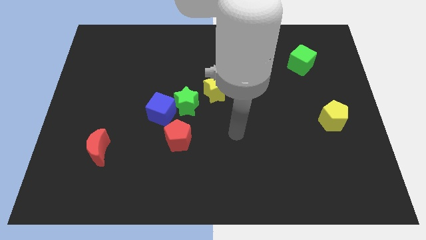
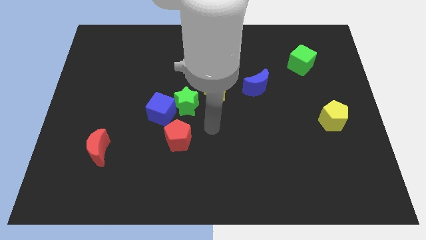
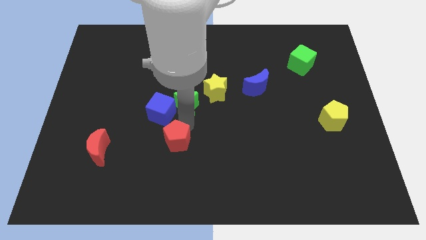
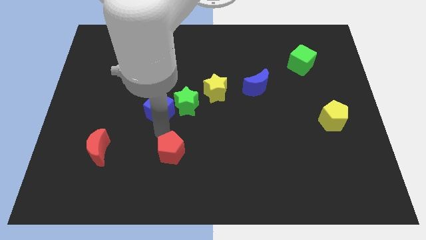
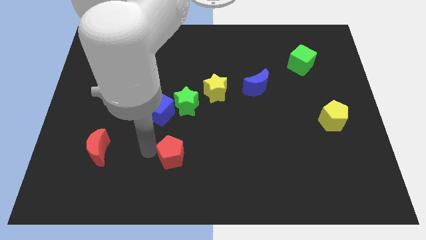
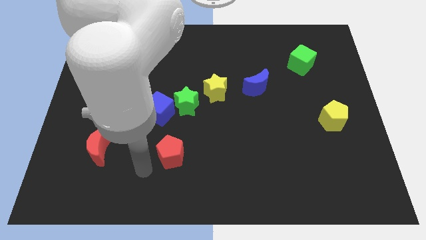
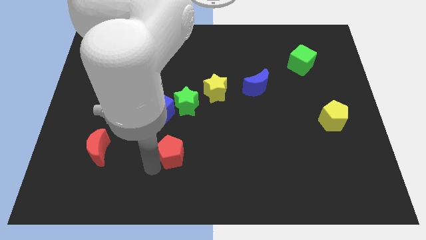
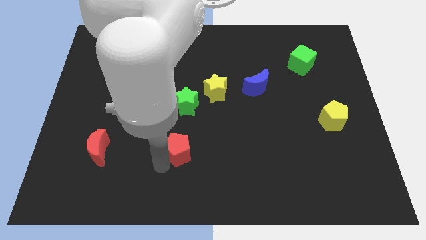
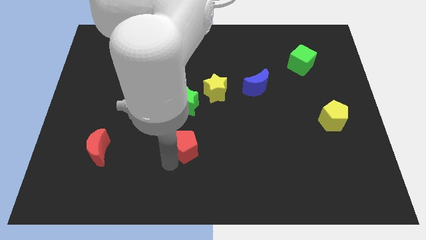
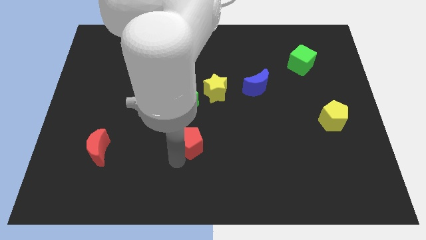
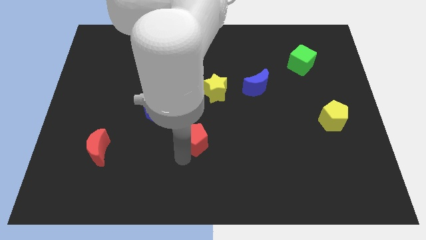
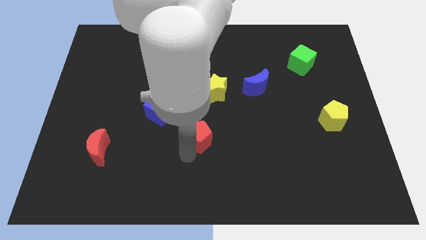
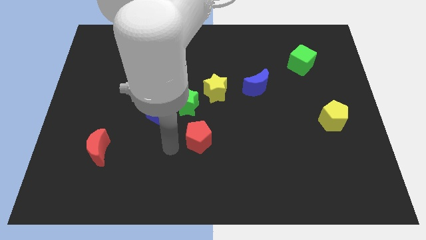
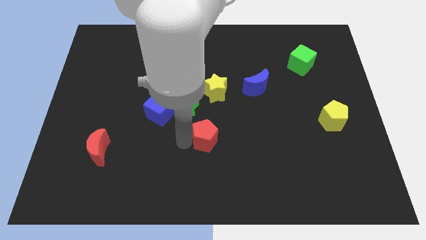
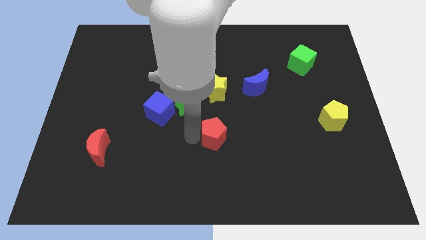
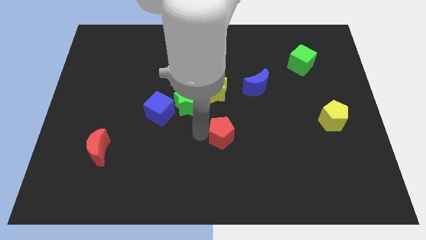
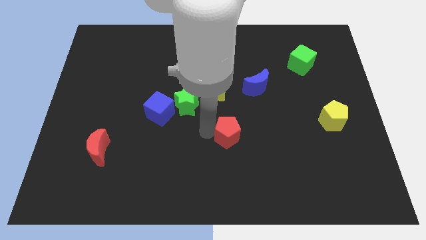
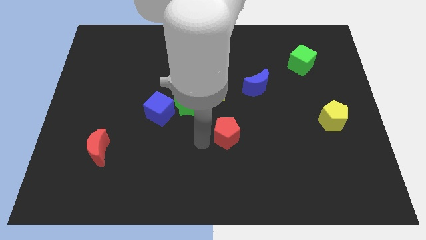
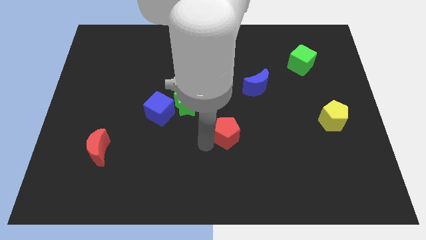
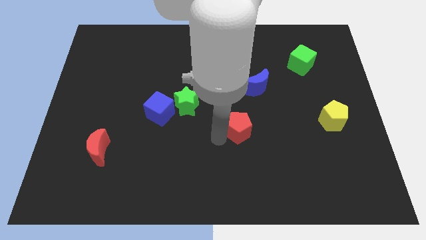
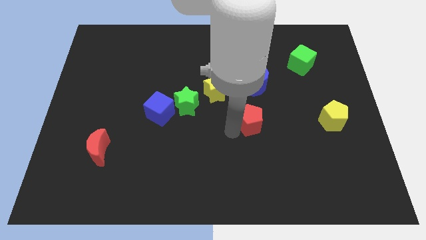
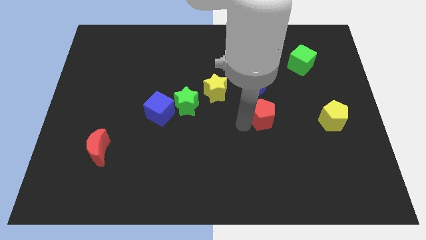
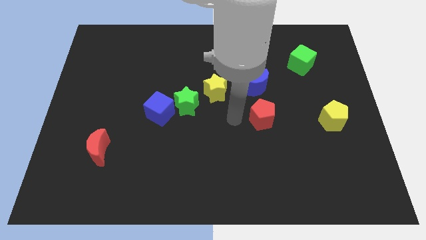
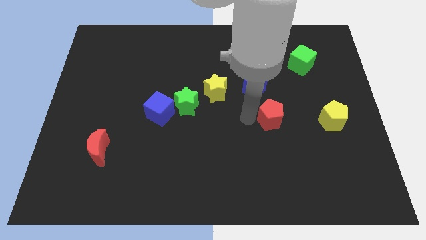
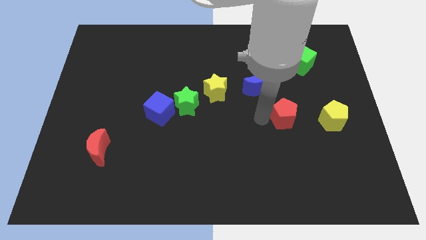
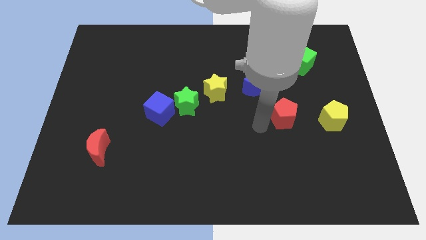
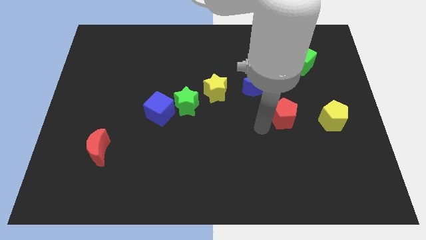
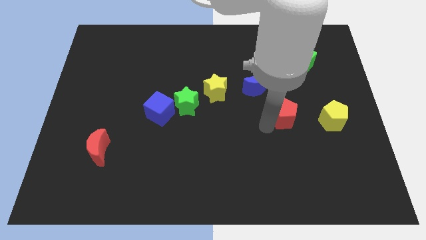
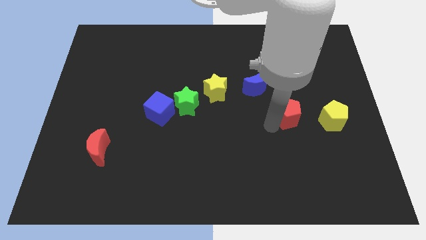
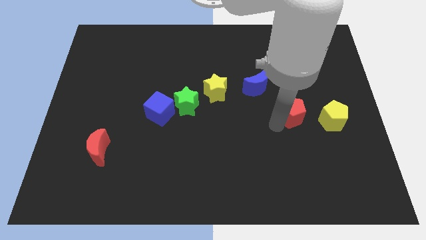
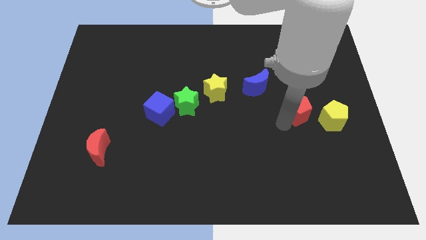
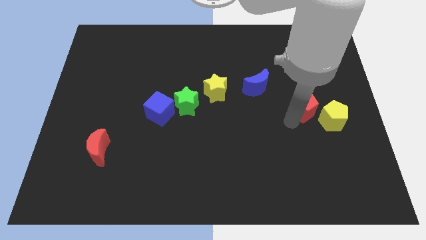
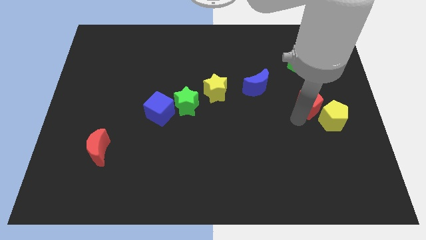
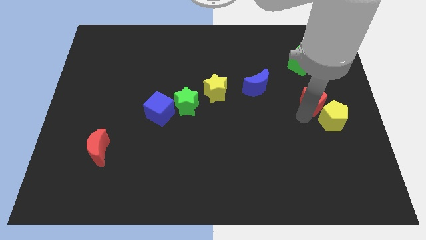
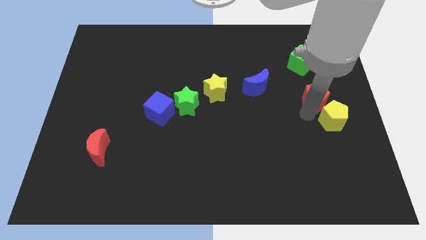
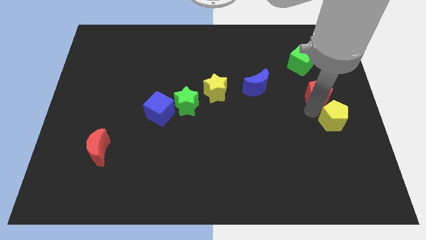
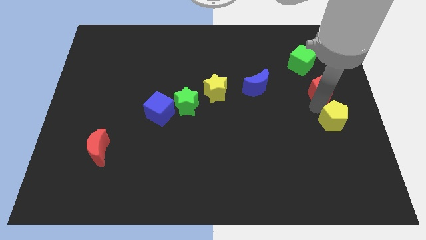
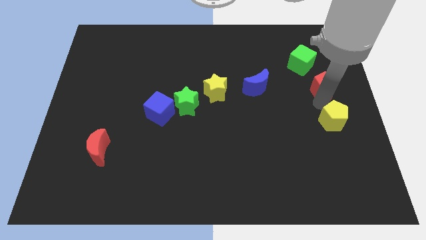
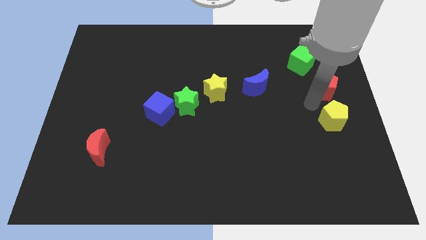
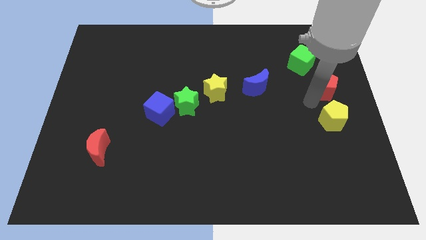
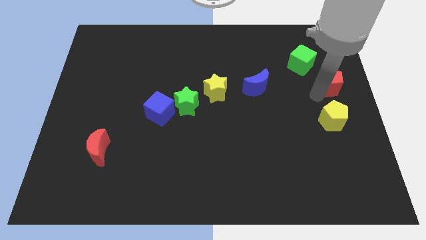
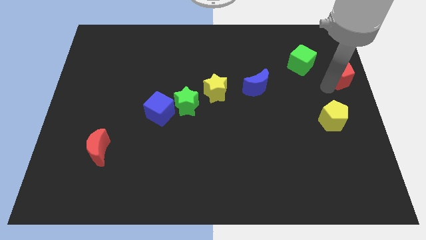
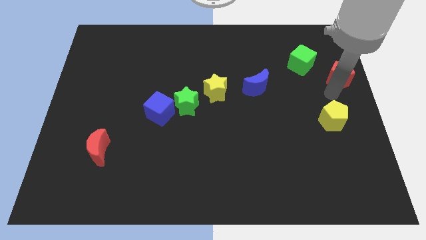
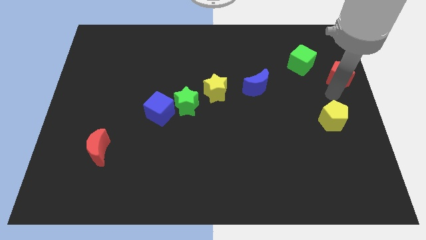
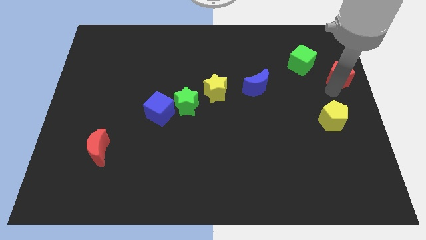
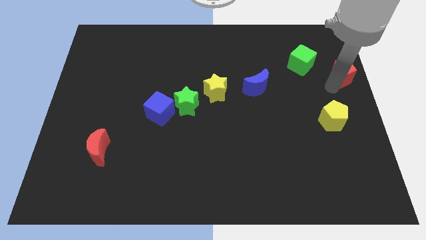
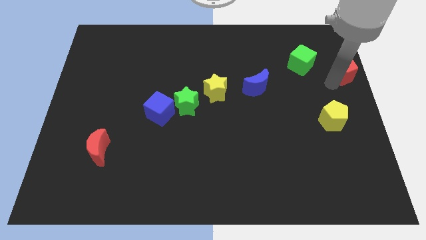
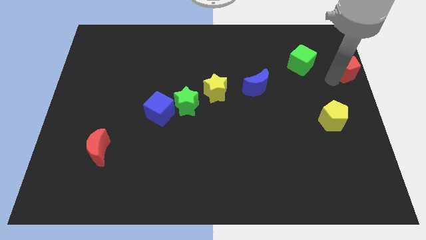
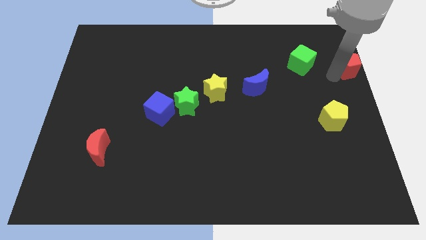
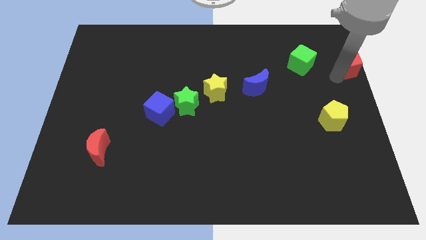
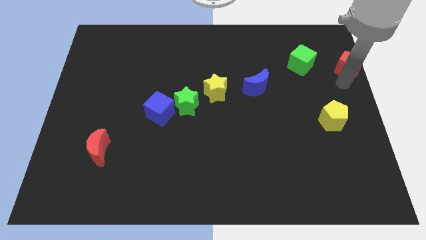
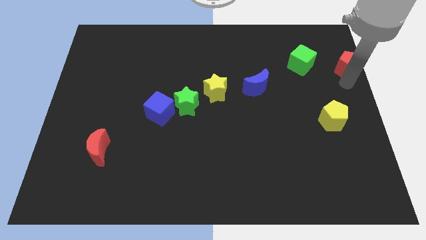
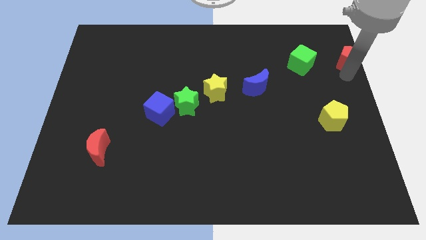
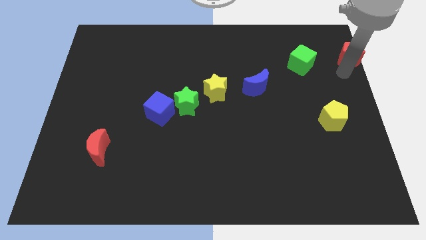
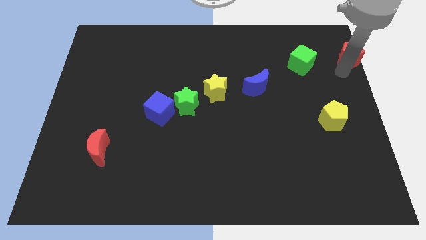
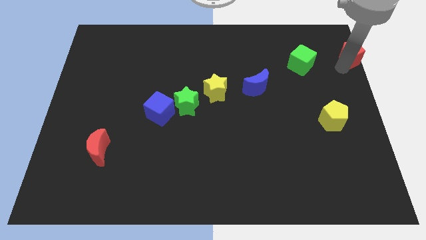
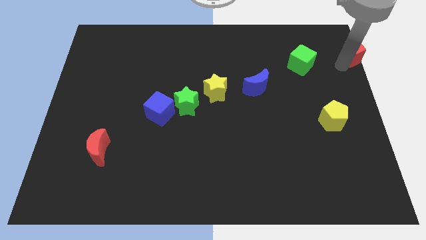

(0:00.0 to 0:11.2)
put the red pentagon to the top right of the board

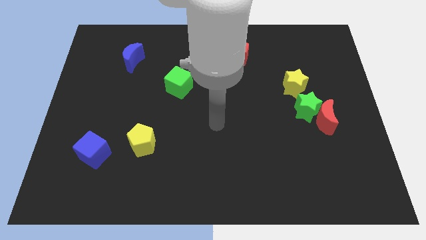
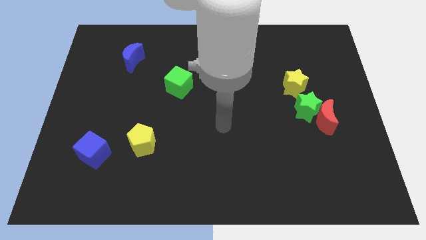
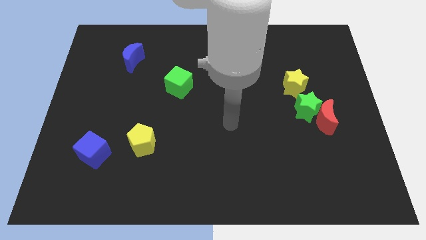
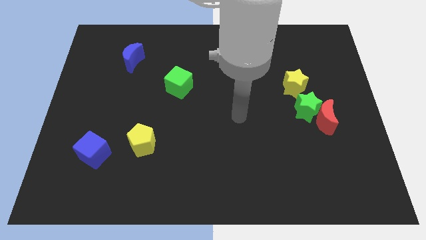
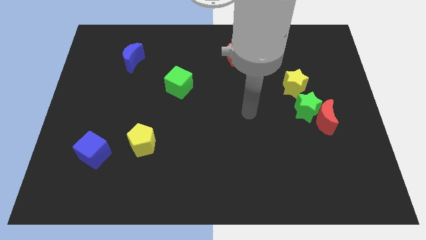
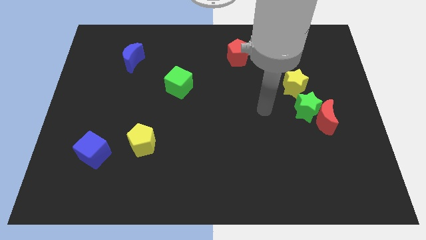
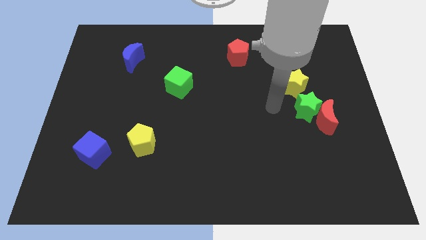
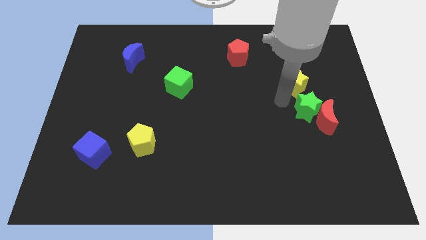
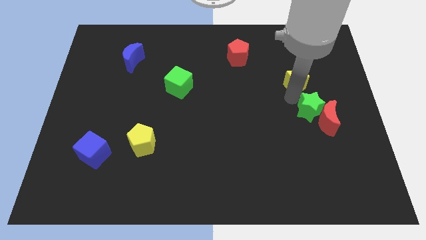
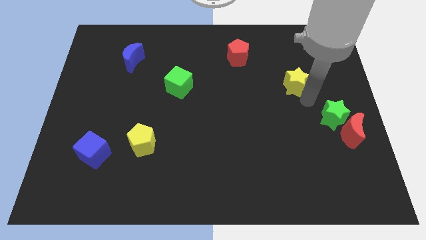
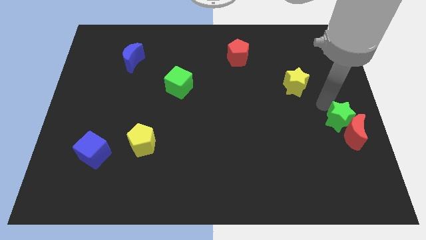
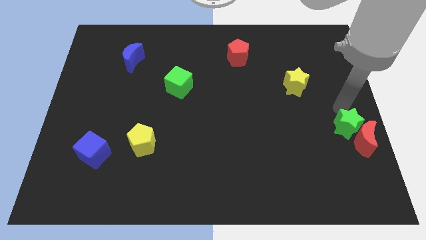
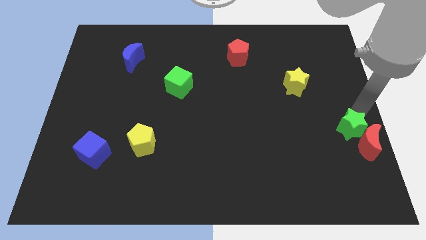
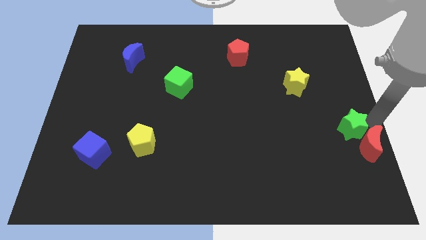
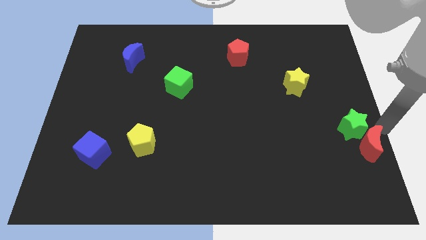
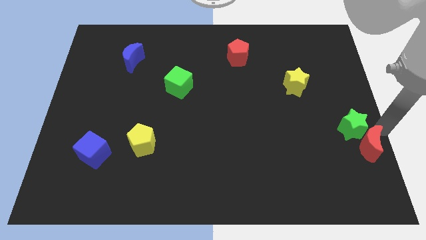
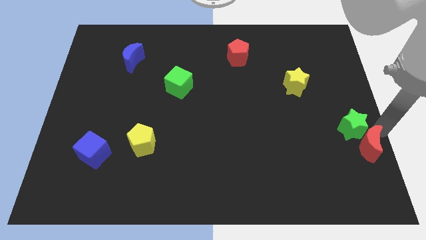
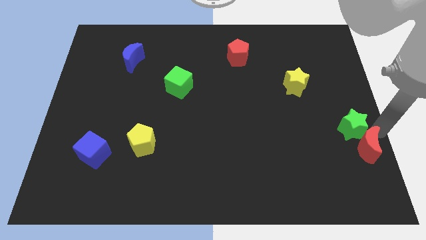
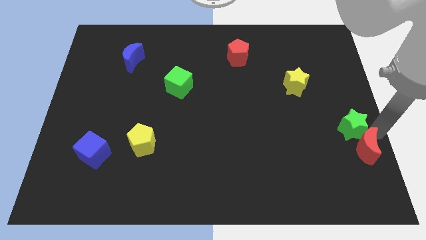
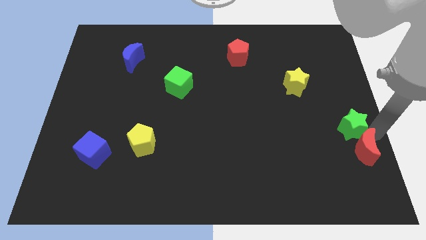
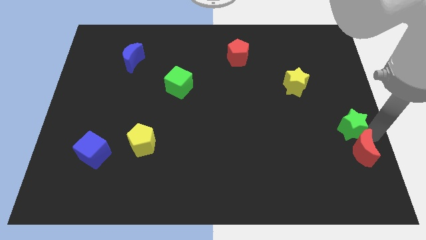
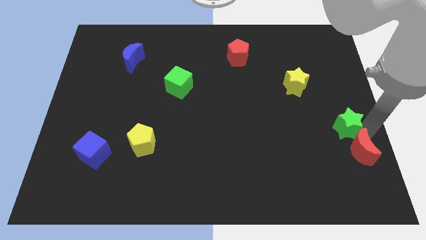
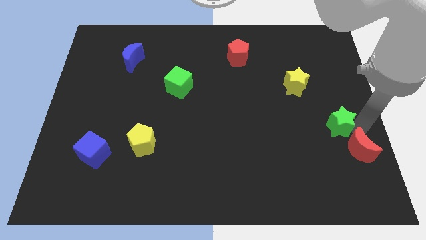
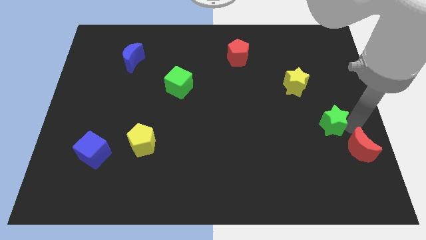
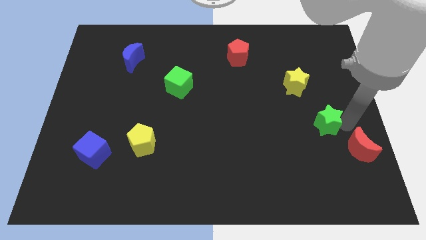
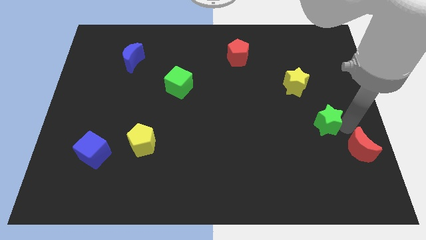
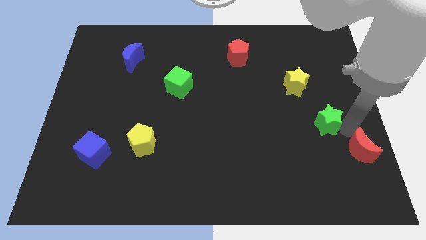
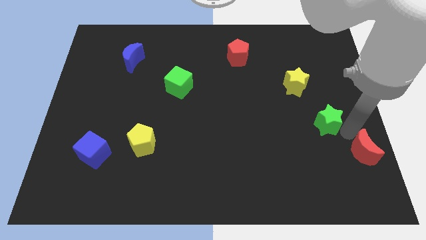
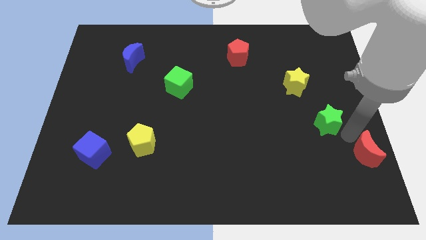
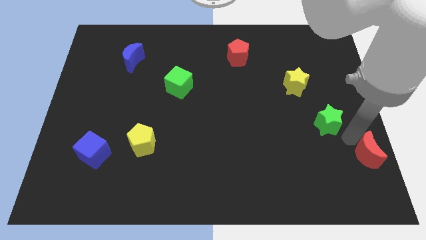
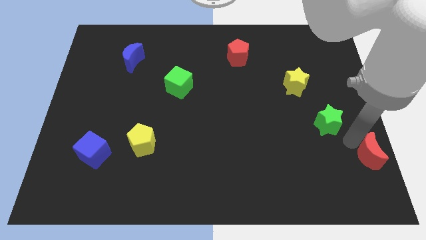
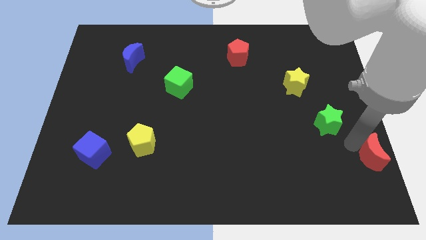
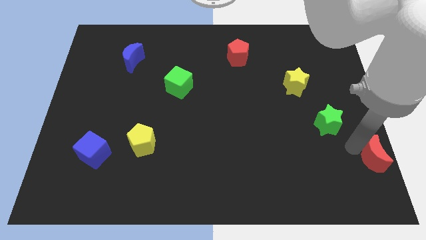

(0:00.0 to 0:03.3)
put the red moon to the lower right corner
